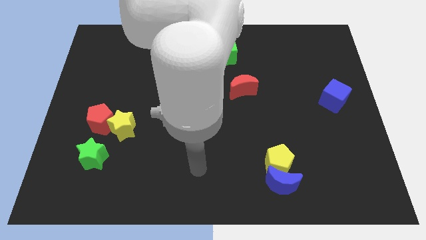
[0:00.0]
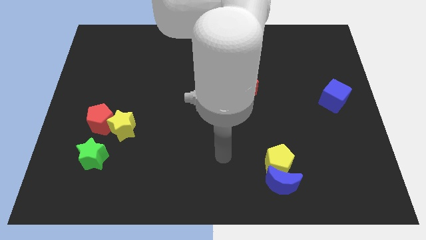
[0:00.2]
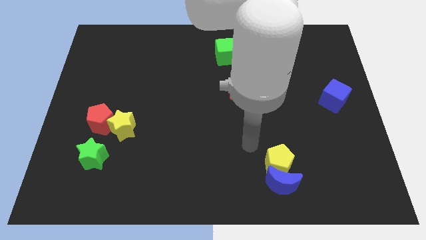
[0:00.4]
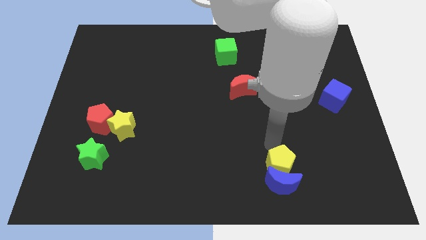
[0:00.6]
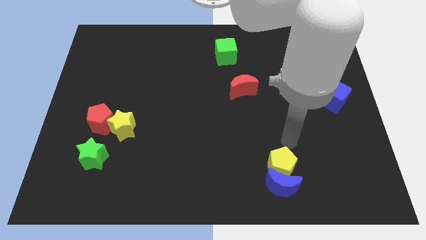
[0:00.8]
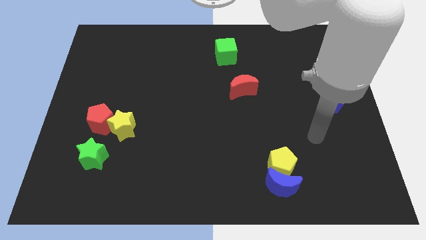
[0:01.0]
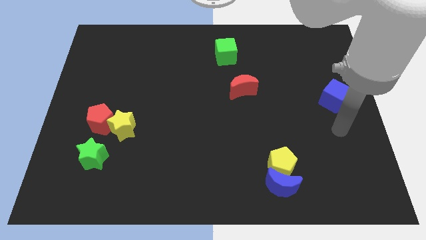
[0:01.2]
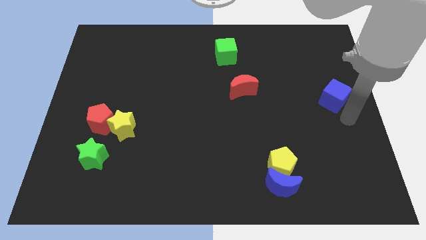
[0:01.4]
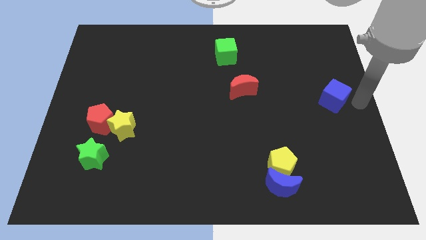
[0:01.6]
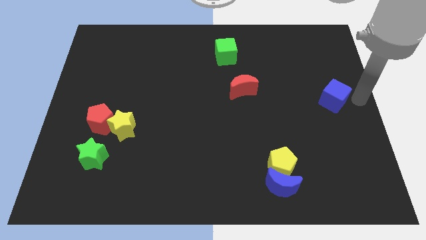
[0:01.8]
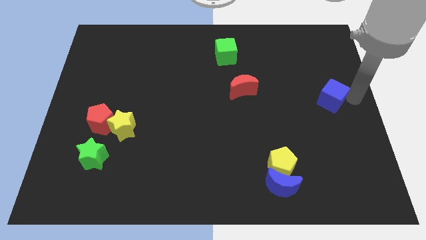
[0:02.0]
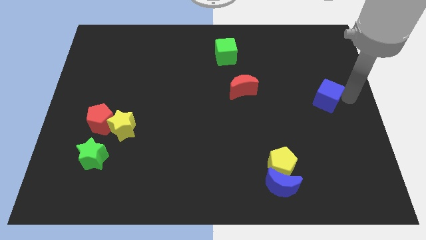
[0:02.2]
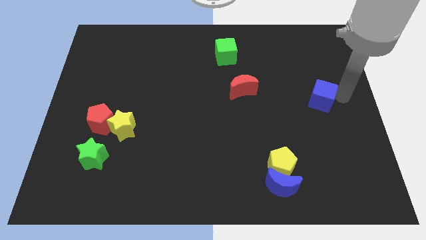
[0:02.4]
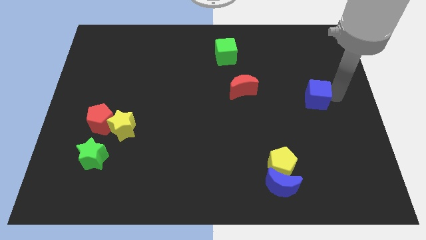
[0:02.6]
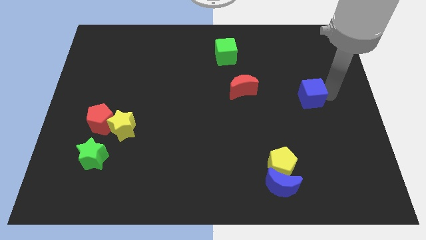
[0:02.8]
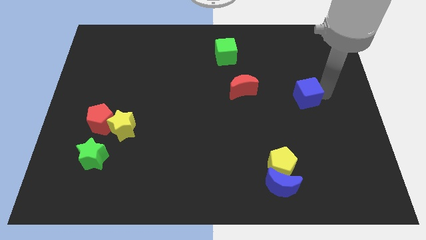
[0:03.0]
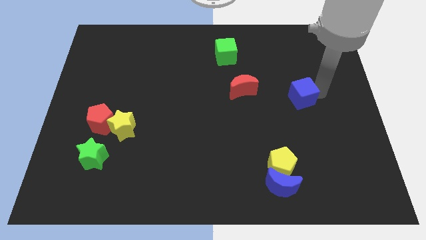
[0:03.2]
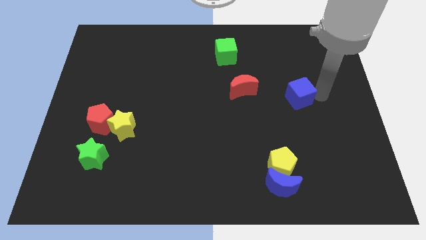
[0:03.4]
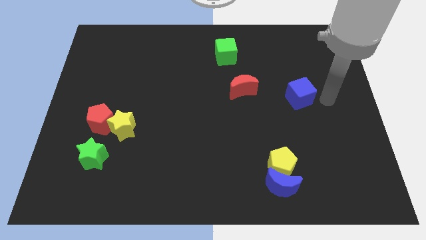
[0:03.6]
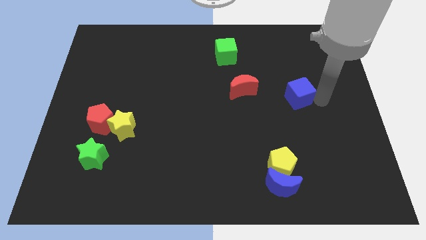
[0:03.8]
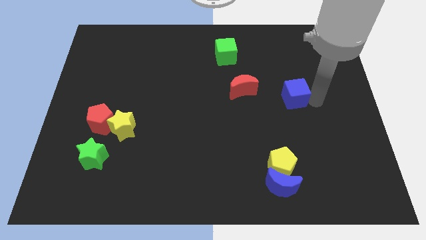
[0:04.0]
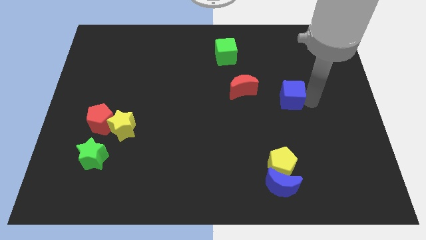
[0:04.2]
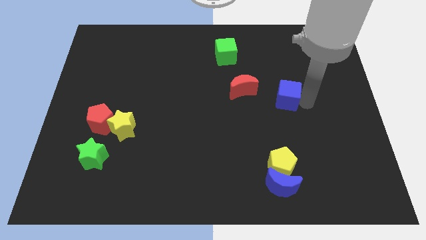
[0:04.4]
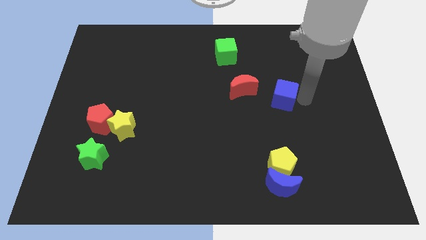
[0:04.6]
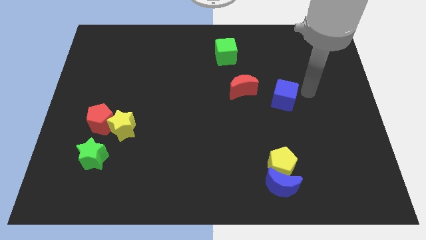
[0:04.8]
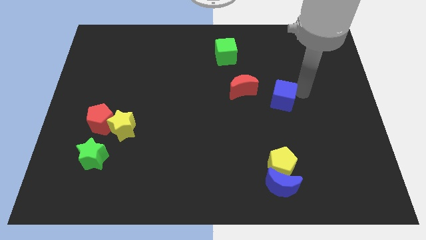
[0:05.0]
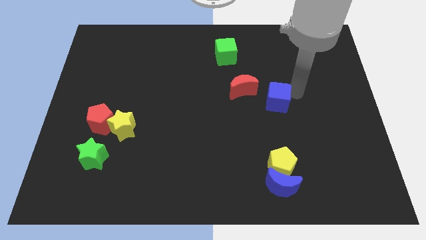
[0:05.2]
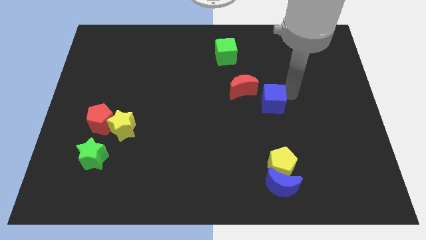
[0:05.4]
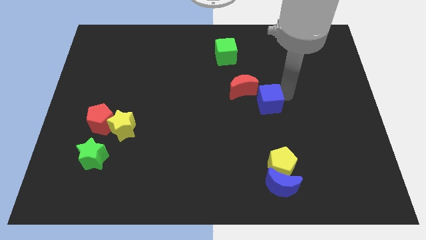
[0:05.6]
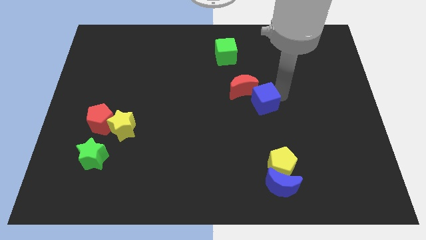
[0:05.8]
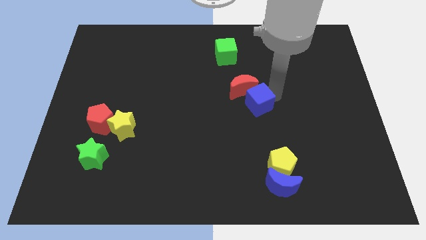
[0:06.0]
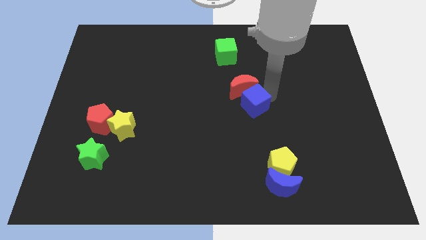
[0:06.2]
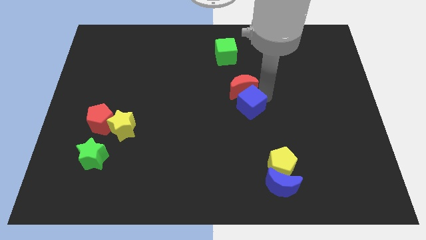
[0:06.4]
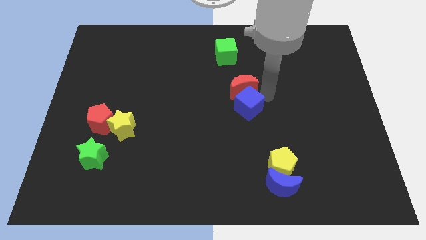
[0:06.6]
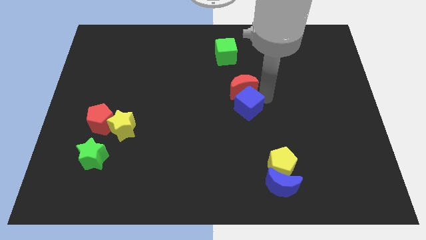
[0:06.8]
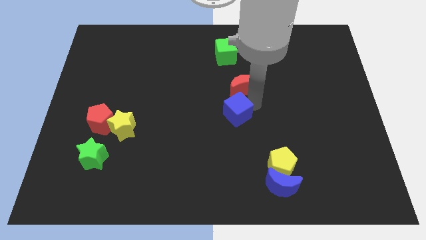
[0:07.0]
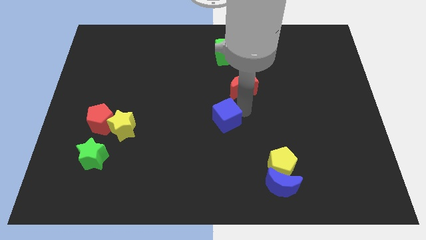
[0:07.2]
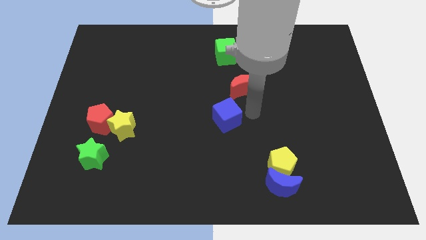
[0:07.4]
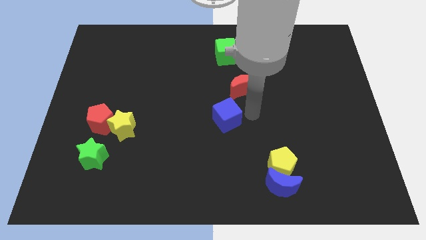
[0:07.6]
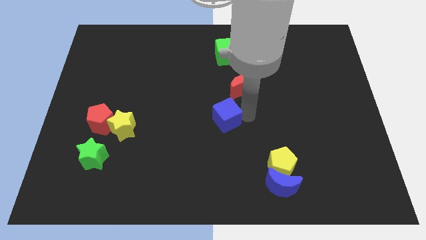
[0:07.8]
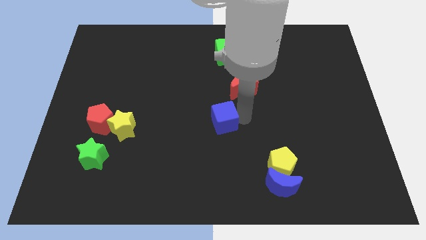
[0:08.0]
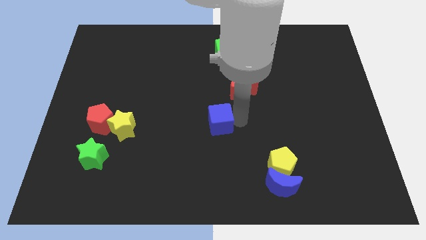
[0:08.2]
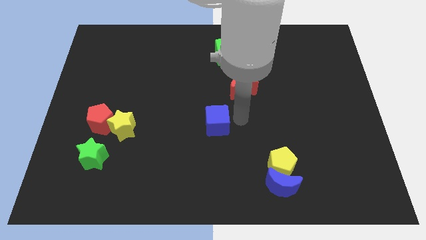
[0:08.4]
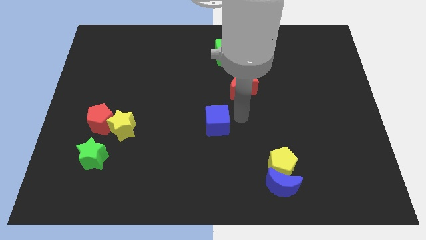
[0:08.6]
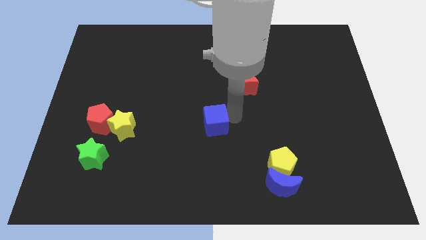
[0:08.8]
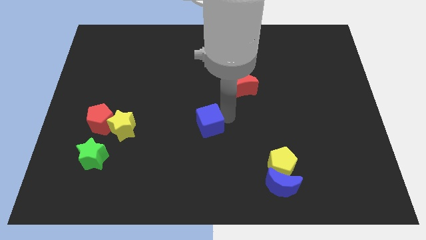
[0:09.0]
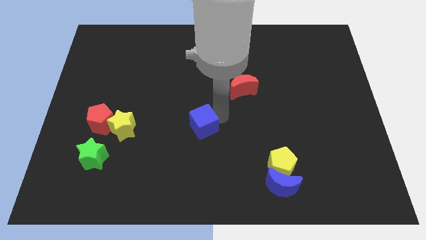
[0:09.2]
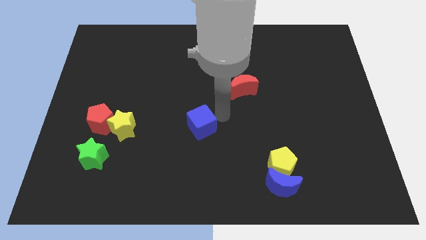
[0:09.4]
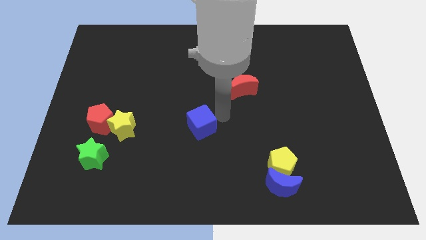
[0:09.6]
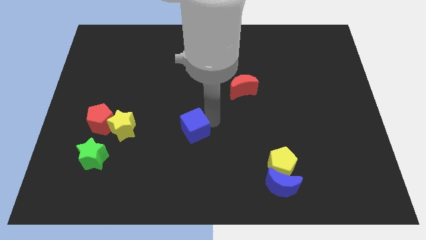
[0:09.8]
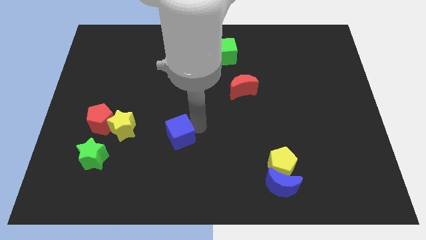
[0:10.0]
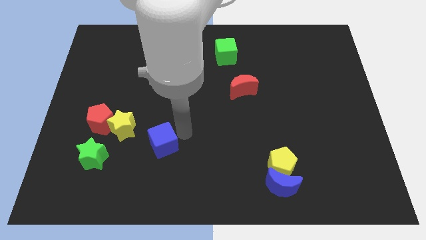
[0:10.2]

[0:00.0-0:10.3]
put the blue cube just right of the green star

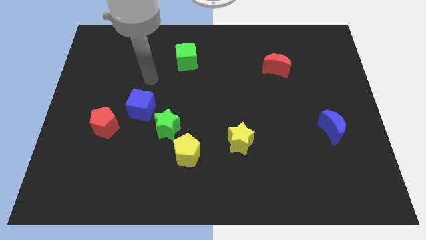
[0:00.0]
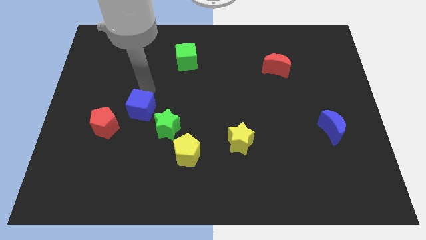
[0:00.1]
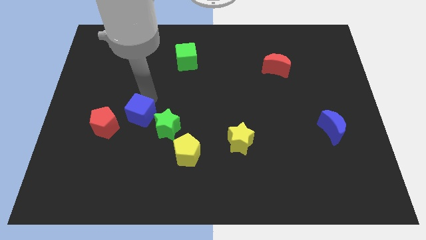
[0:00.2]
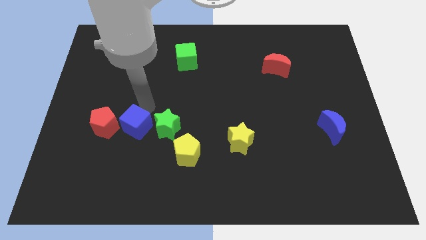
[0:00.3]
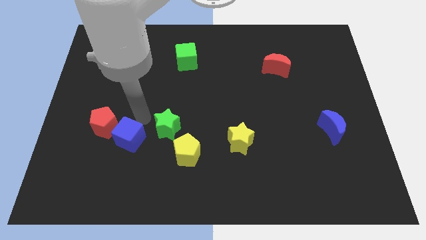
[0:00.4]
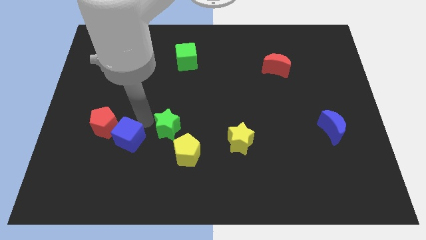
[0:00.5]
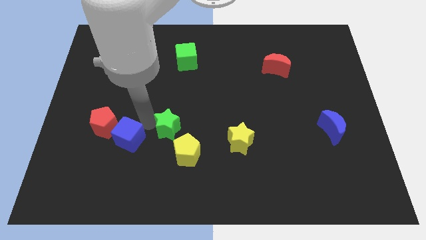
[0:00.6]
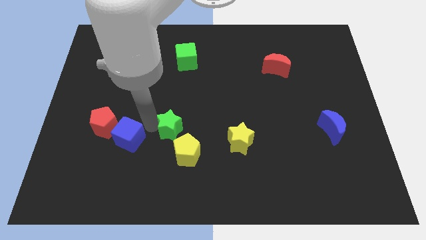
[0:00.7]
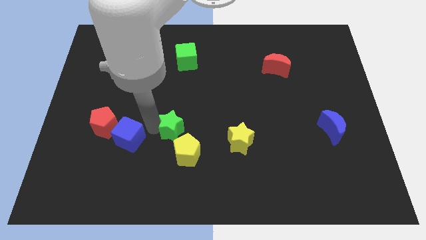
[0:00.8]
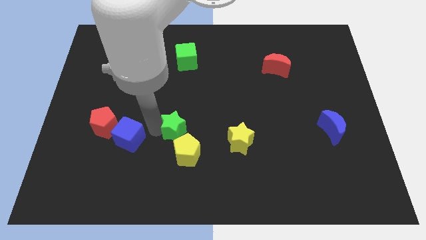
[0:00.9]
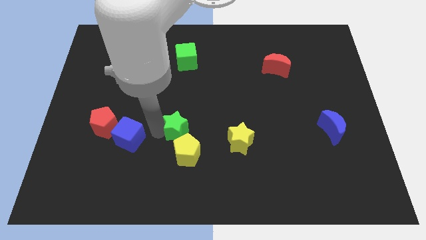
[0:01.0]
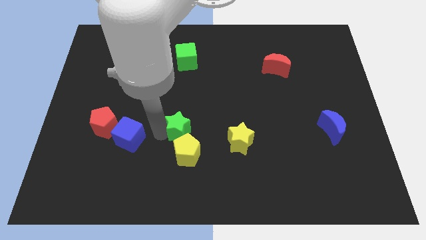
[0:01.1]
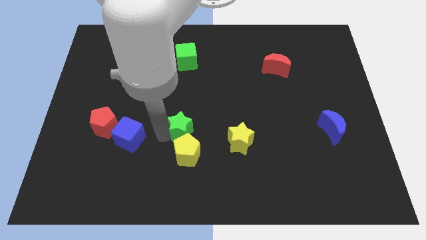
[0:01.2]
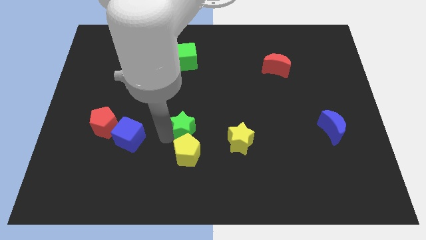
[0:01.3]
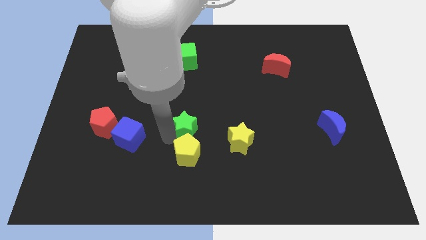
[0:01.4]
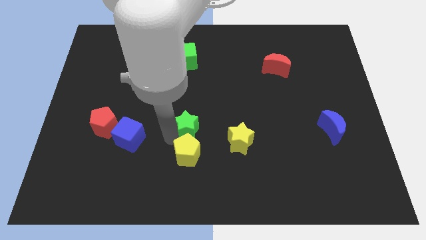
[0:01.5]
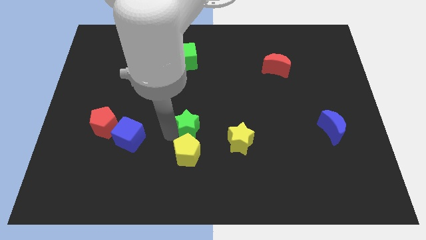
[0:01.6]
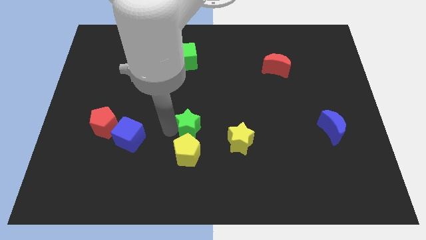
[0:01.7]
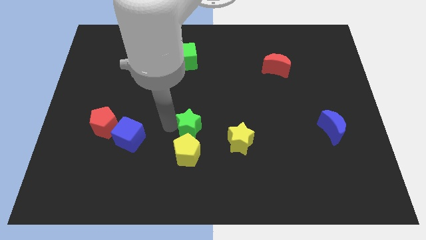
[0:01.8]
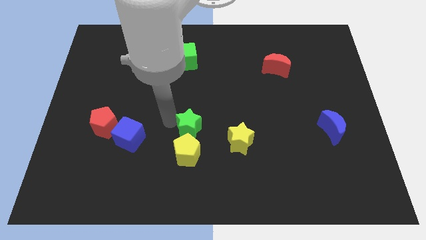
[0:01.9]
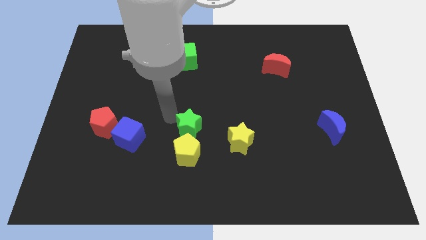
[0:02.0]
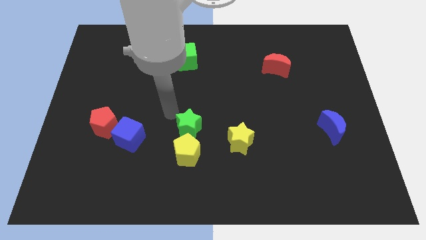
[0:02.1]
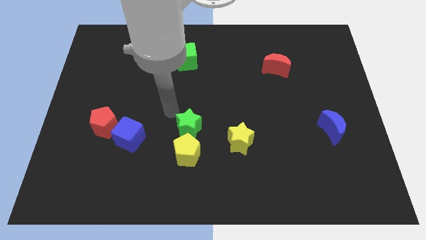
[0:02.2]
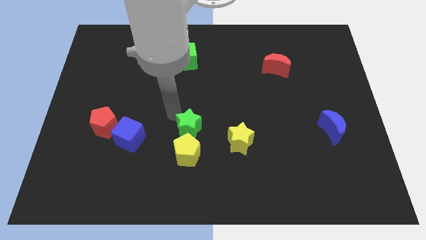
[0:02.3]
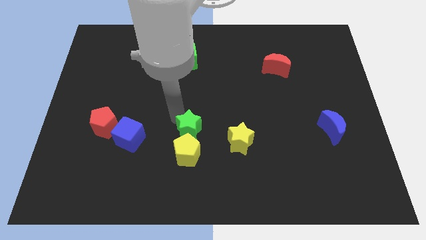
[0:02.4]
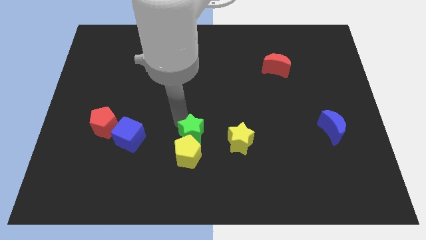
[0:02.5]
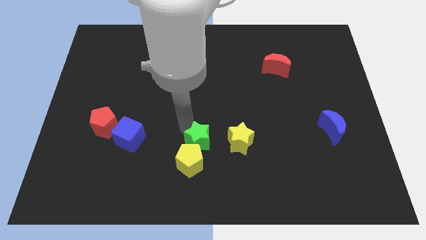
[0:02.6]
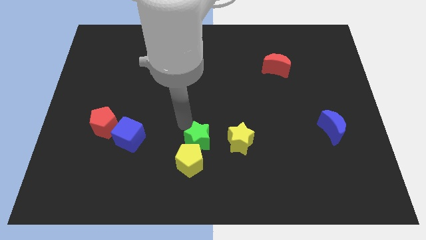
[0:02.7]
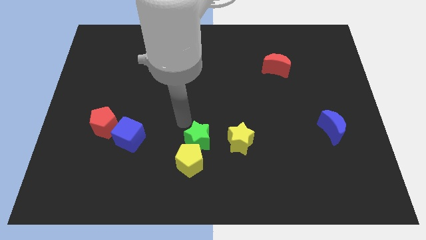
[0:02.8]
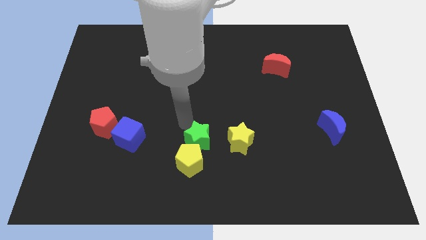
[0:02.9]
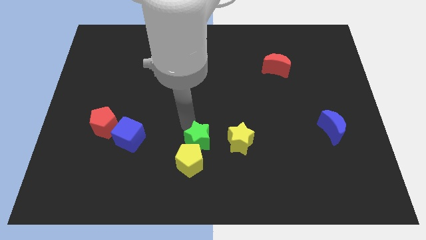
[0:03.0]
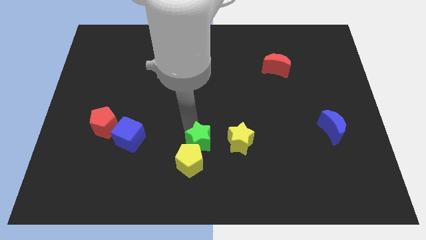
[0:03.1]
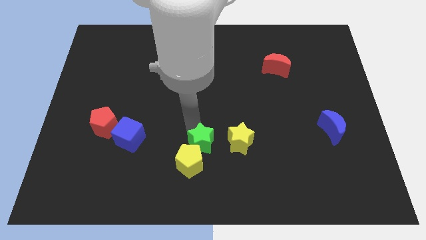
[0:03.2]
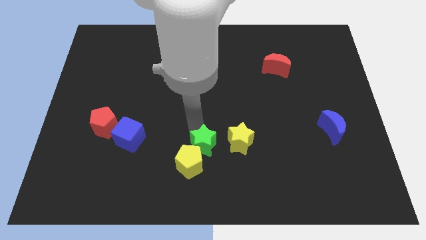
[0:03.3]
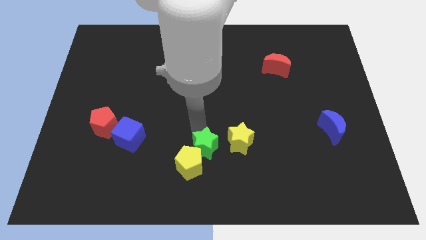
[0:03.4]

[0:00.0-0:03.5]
slide the green star diagonally down and to the left of the yellow star
